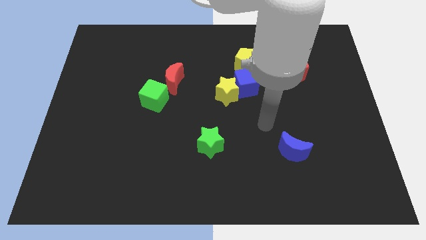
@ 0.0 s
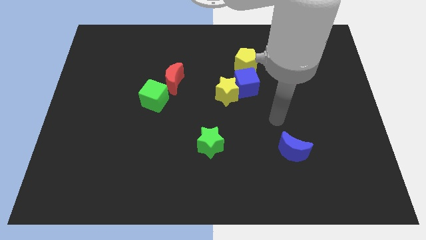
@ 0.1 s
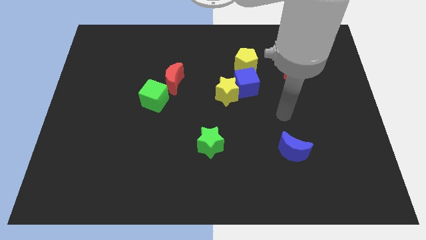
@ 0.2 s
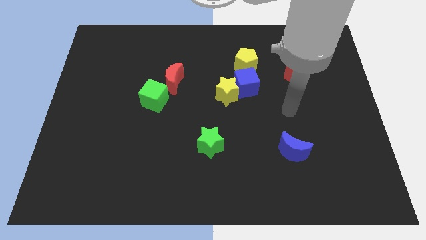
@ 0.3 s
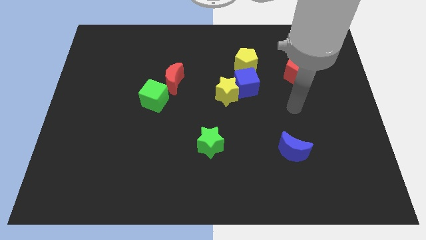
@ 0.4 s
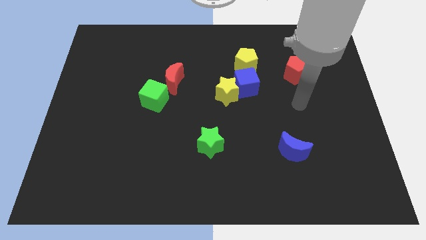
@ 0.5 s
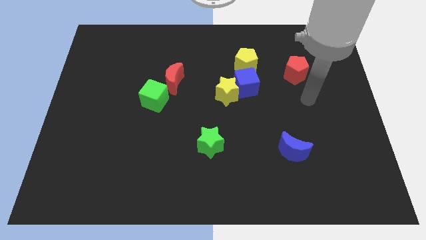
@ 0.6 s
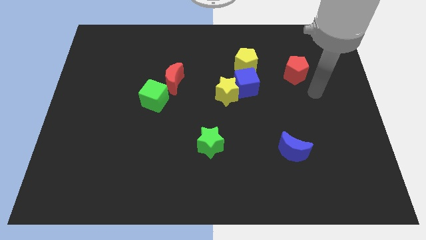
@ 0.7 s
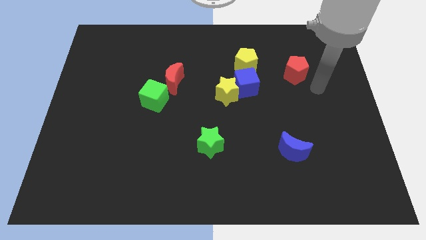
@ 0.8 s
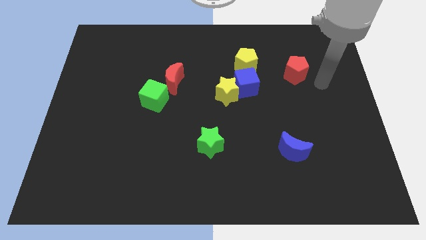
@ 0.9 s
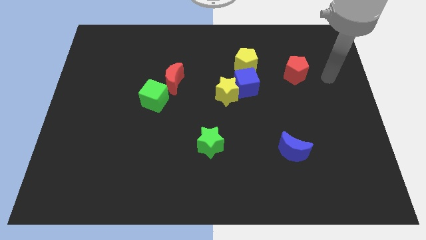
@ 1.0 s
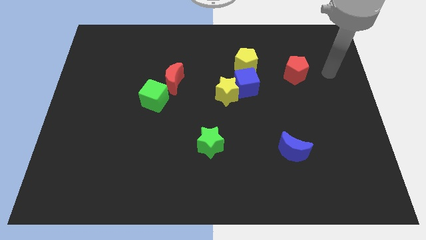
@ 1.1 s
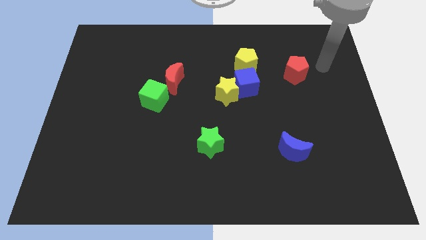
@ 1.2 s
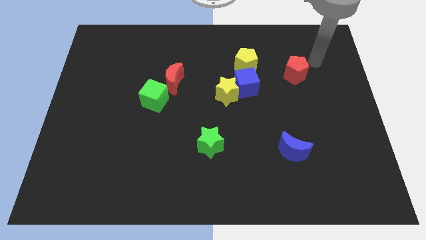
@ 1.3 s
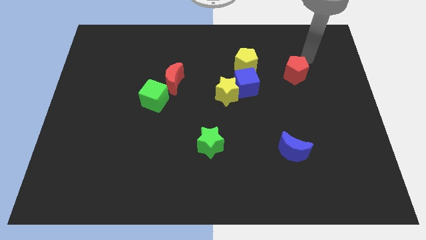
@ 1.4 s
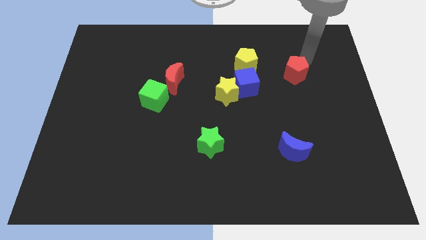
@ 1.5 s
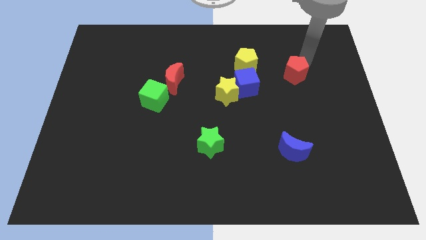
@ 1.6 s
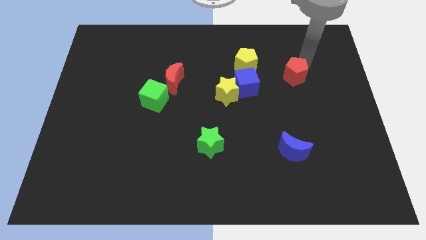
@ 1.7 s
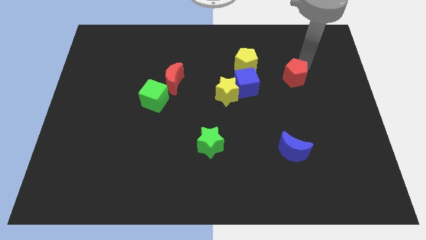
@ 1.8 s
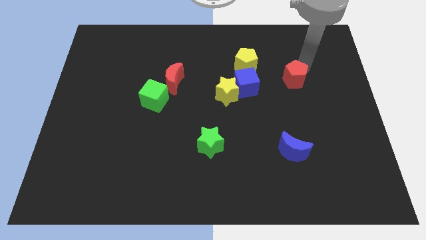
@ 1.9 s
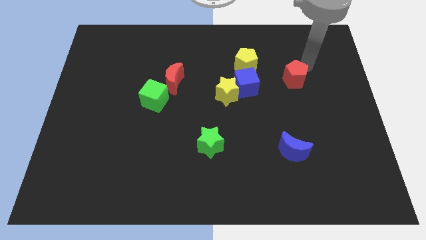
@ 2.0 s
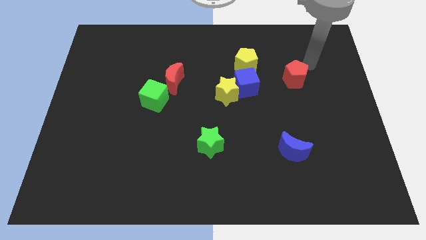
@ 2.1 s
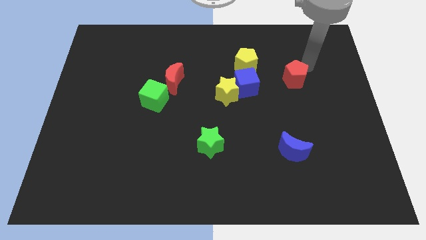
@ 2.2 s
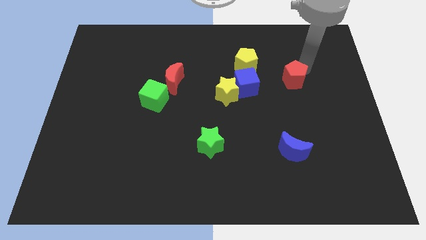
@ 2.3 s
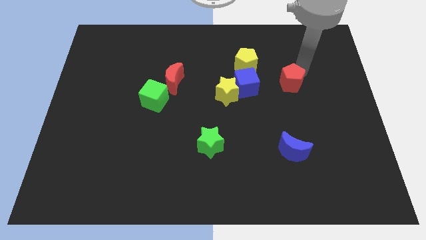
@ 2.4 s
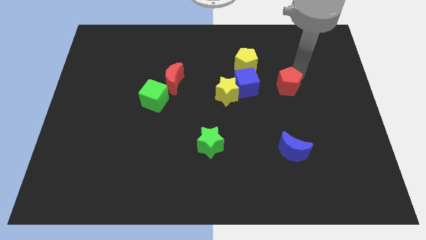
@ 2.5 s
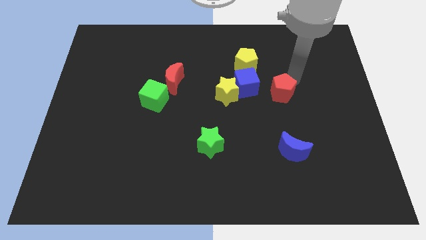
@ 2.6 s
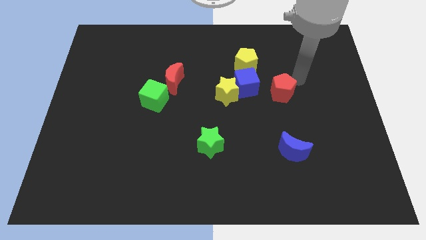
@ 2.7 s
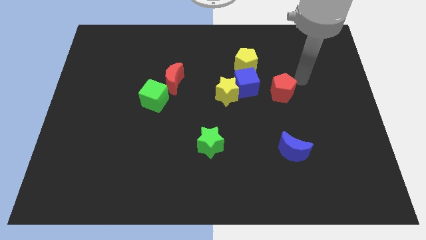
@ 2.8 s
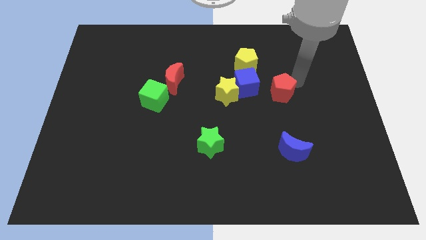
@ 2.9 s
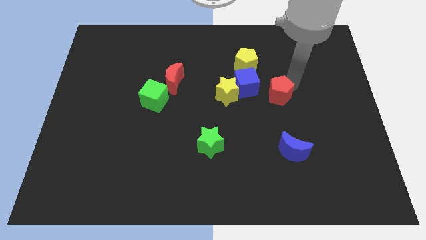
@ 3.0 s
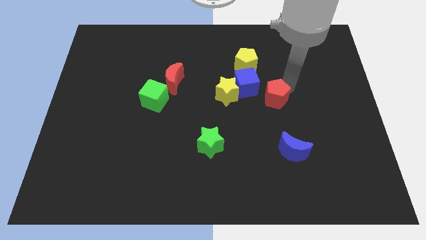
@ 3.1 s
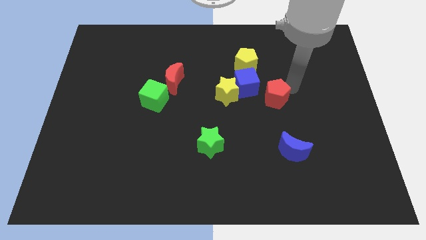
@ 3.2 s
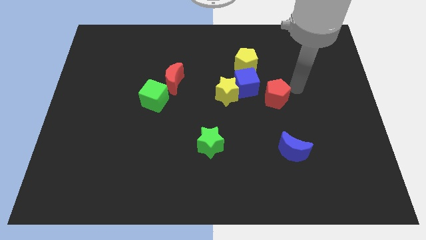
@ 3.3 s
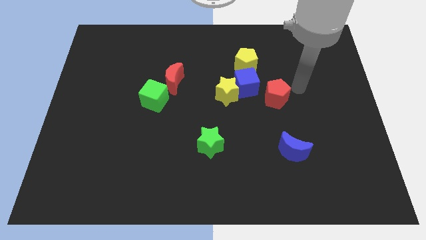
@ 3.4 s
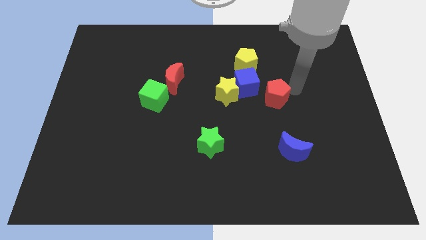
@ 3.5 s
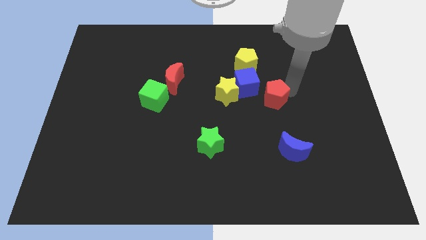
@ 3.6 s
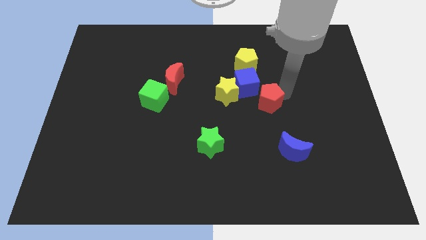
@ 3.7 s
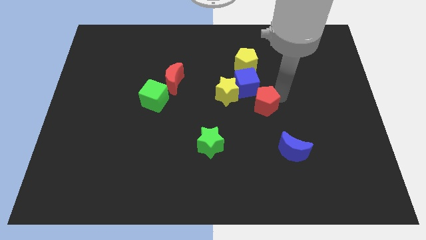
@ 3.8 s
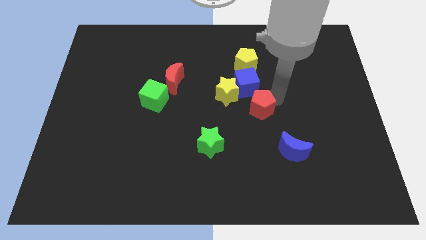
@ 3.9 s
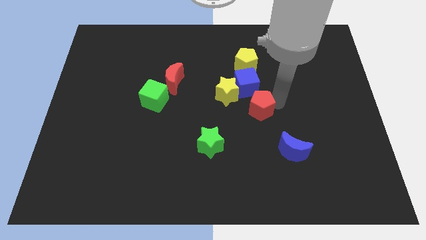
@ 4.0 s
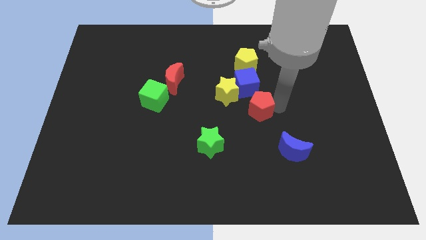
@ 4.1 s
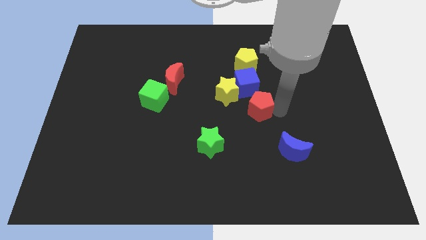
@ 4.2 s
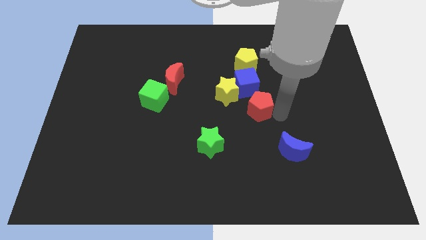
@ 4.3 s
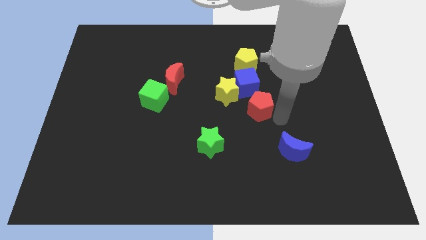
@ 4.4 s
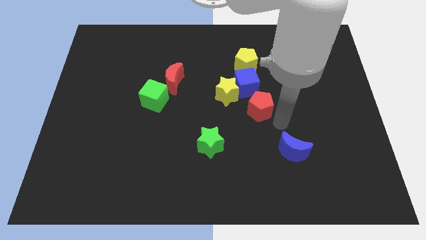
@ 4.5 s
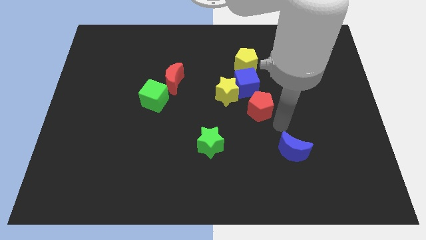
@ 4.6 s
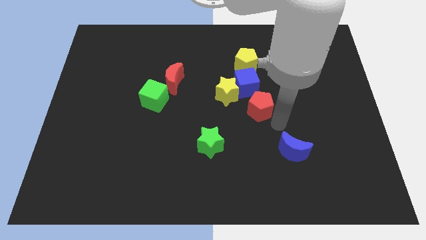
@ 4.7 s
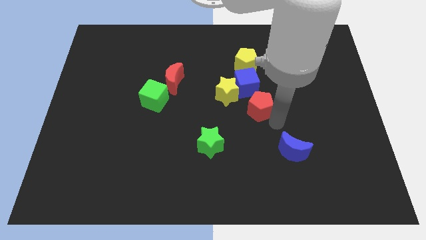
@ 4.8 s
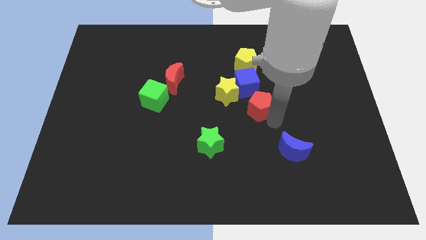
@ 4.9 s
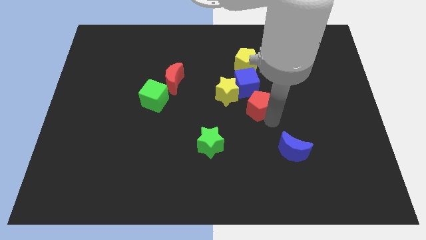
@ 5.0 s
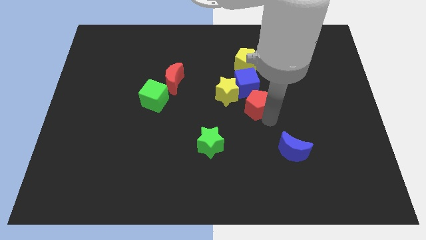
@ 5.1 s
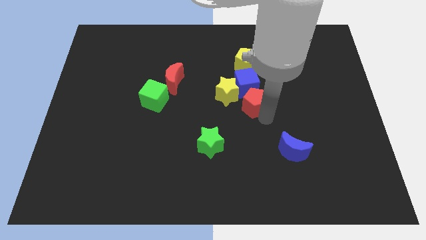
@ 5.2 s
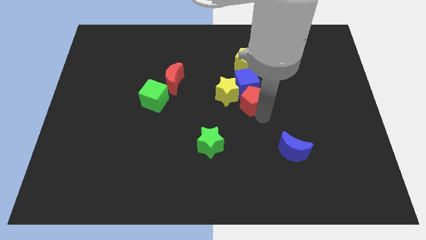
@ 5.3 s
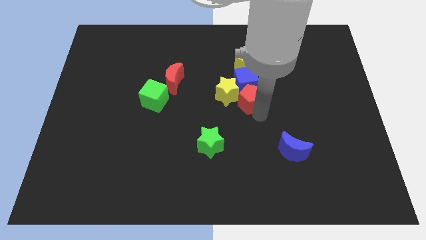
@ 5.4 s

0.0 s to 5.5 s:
put the red pentagon towards the yellow star

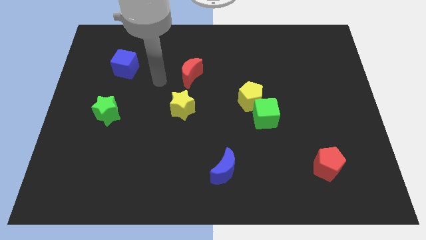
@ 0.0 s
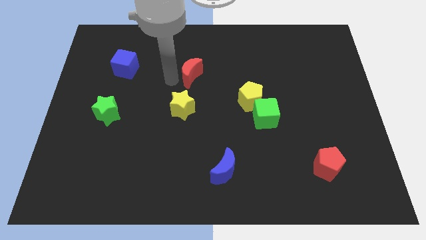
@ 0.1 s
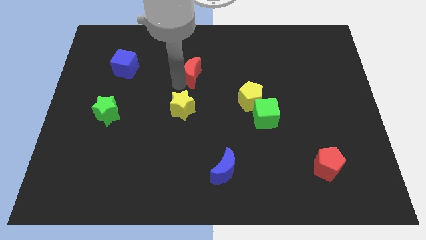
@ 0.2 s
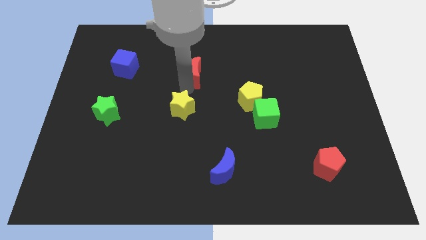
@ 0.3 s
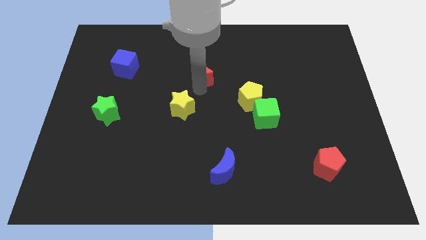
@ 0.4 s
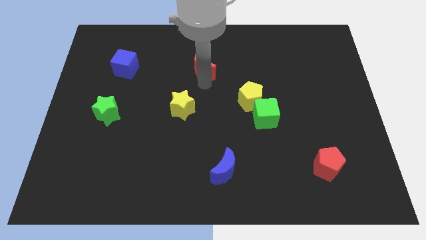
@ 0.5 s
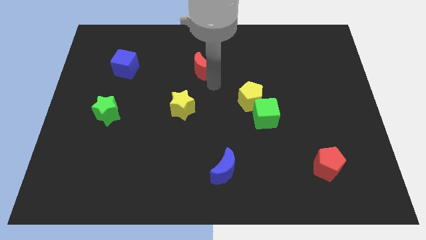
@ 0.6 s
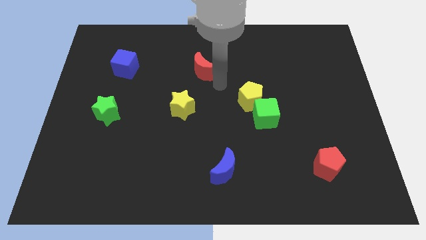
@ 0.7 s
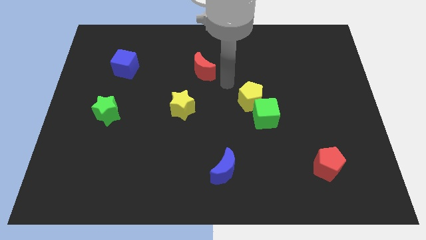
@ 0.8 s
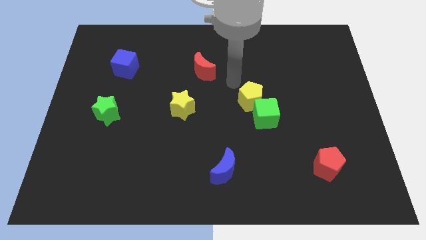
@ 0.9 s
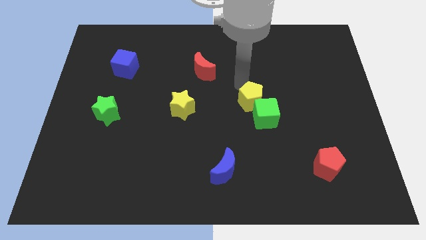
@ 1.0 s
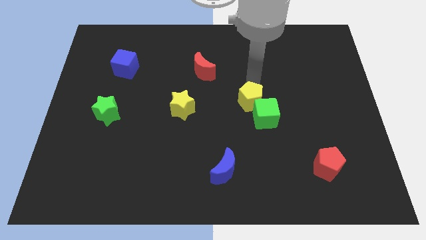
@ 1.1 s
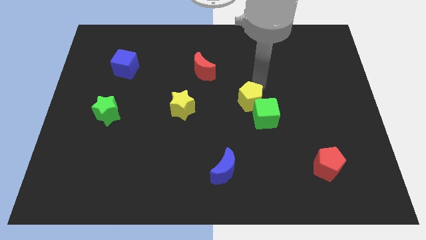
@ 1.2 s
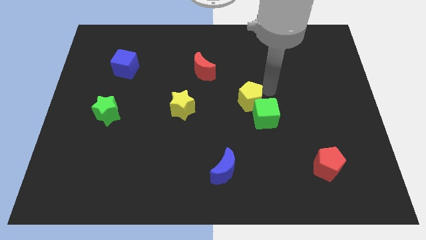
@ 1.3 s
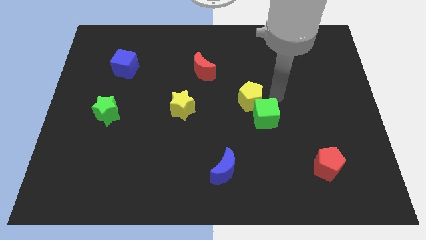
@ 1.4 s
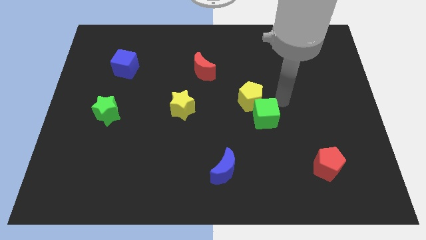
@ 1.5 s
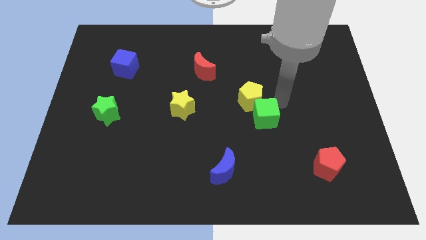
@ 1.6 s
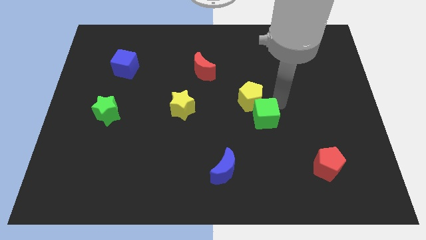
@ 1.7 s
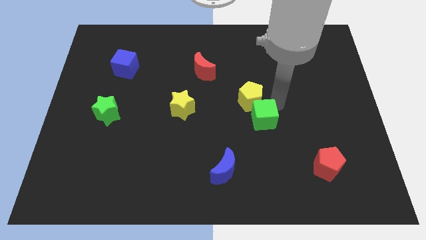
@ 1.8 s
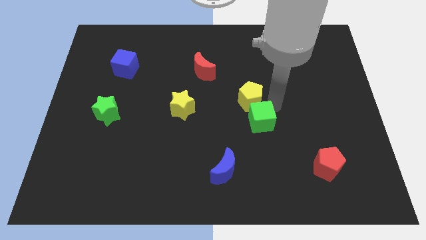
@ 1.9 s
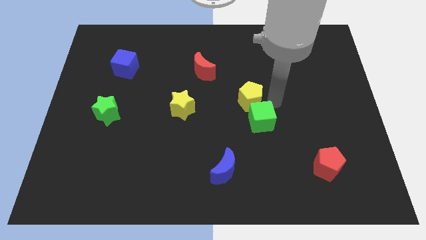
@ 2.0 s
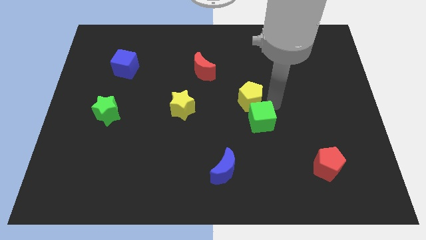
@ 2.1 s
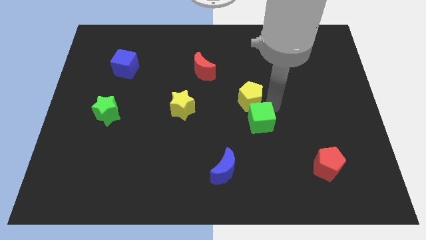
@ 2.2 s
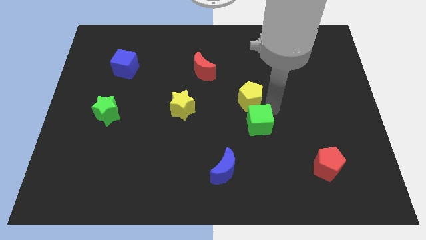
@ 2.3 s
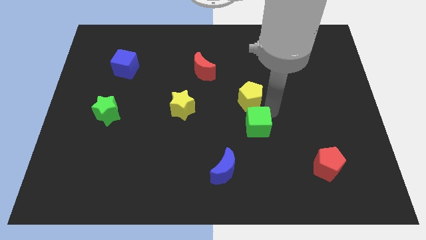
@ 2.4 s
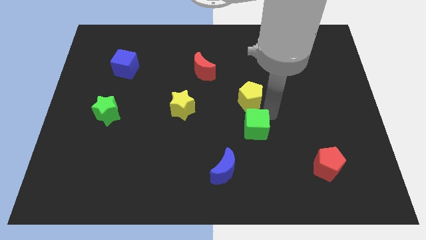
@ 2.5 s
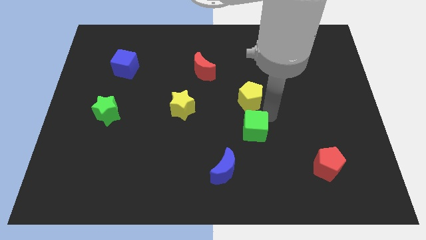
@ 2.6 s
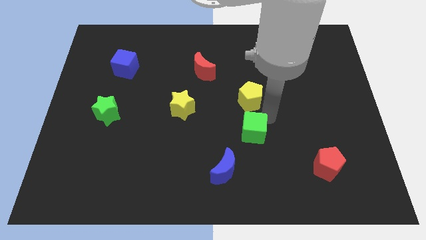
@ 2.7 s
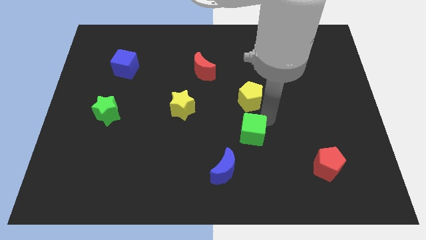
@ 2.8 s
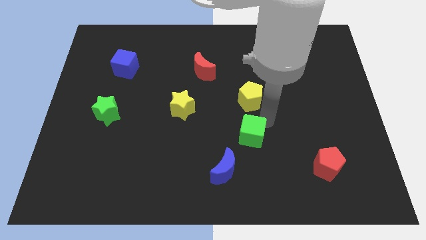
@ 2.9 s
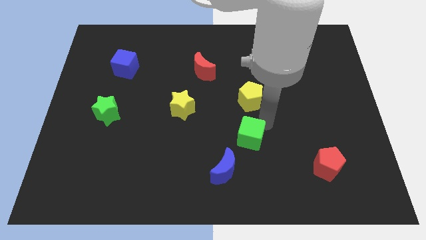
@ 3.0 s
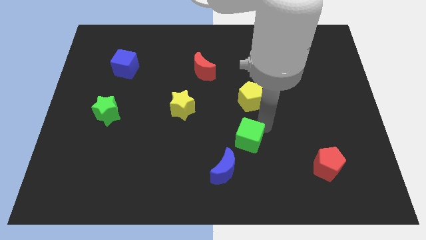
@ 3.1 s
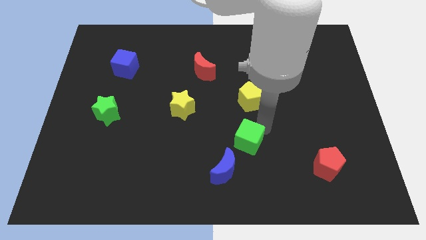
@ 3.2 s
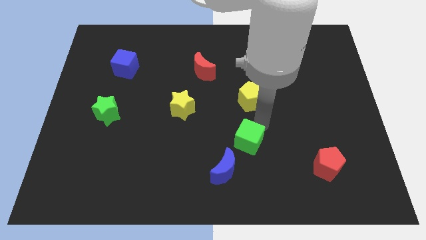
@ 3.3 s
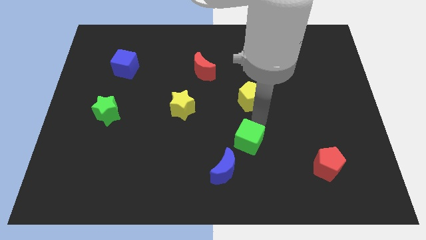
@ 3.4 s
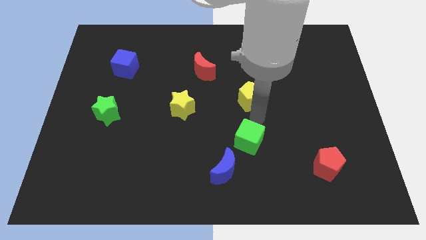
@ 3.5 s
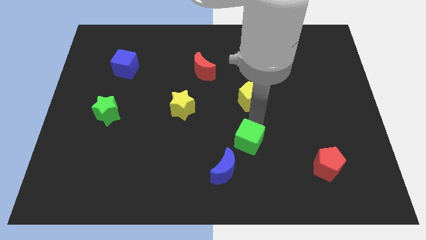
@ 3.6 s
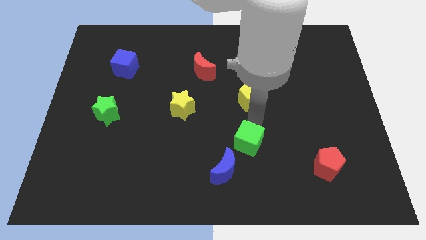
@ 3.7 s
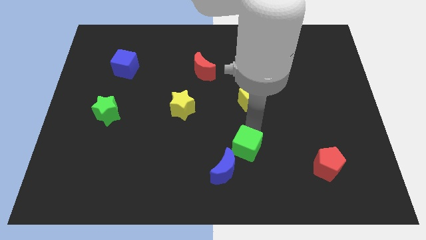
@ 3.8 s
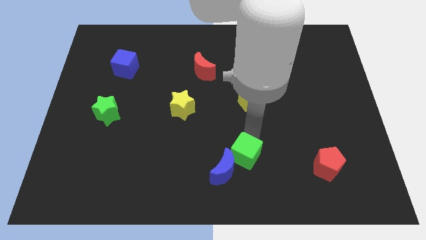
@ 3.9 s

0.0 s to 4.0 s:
put the green cube next to the blue moon
